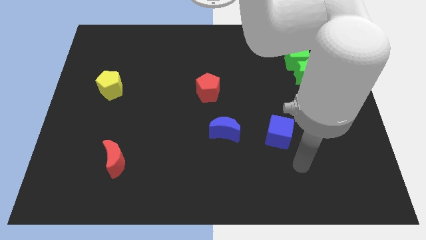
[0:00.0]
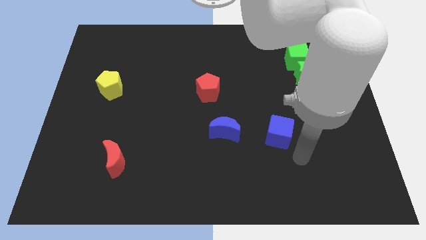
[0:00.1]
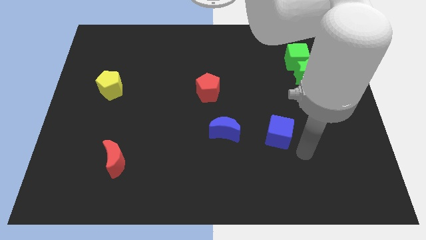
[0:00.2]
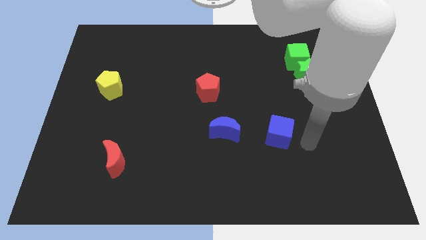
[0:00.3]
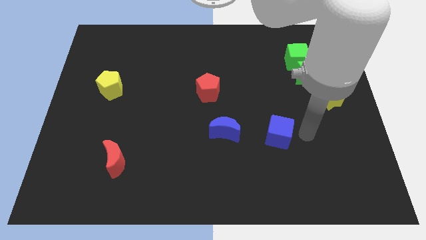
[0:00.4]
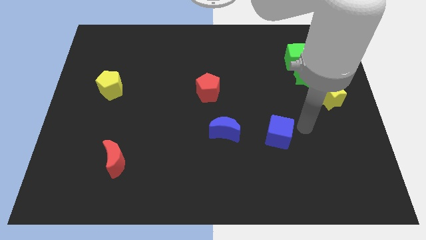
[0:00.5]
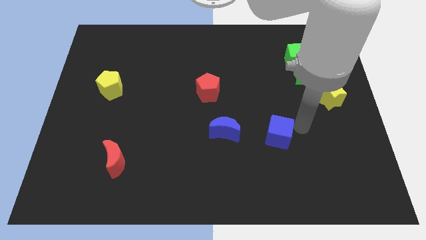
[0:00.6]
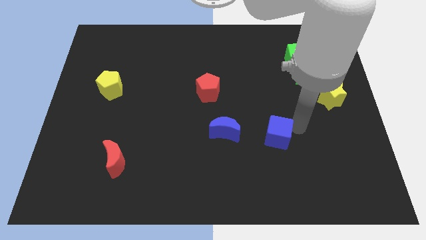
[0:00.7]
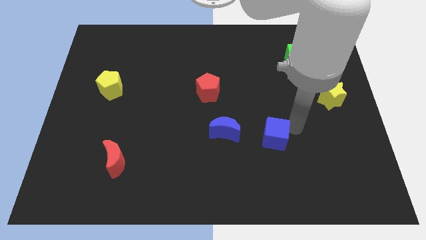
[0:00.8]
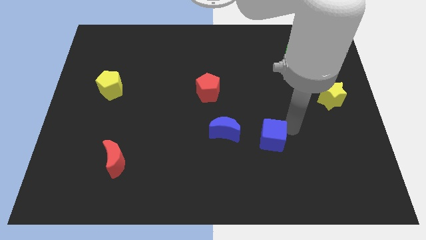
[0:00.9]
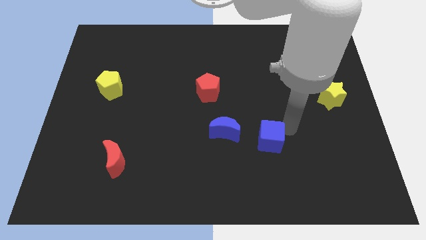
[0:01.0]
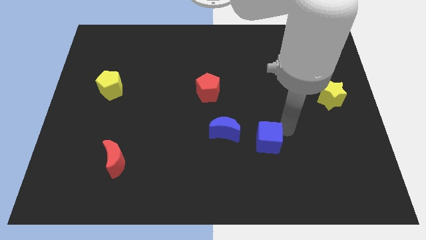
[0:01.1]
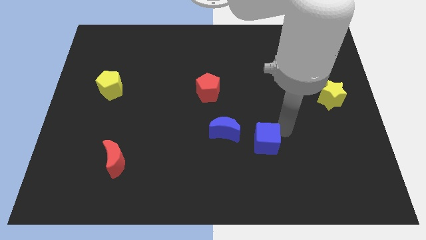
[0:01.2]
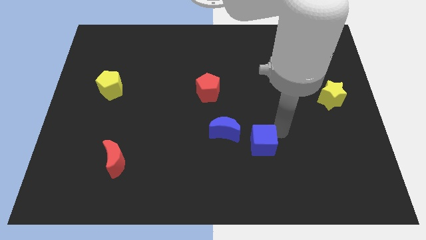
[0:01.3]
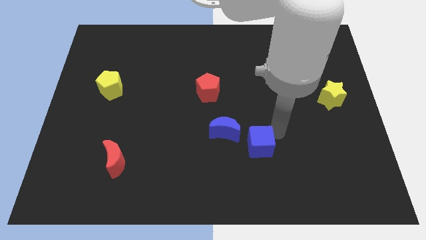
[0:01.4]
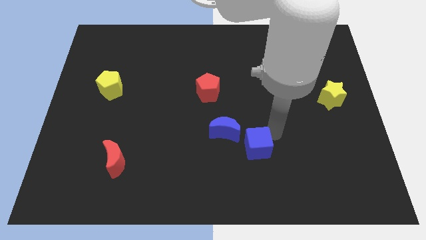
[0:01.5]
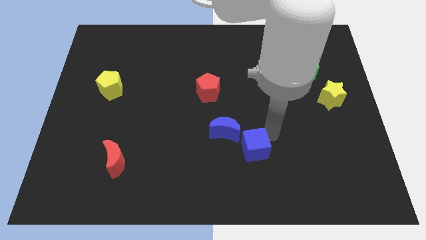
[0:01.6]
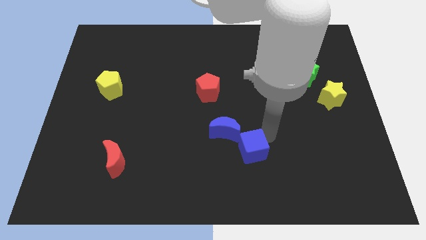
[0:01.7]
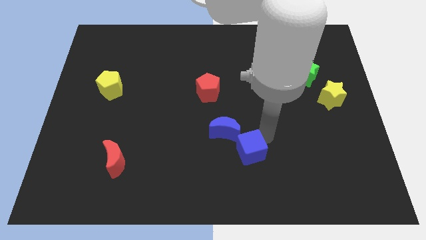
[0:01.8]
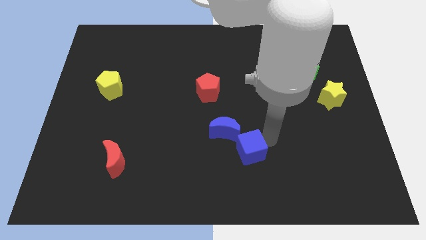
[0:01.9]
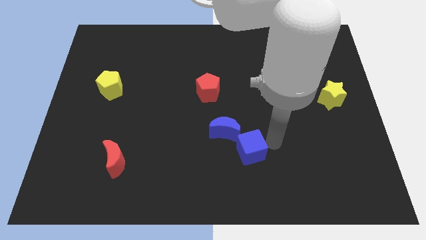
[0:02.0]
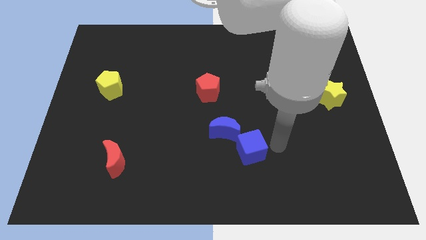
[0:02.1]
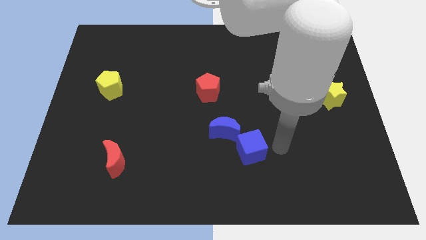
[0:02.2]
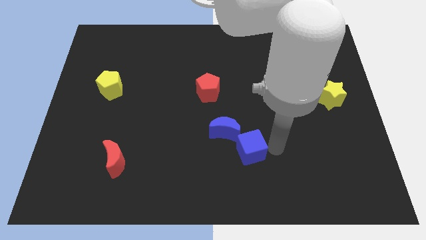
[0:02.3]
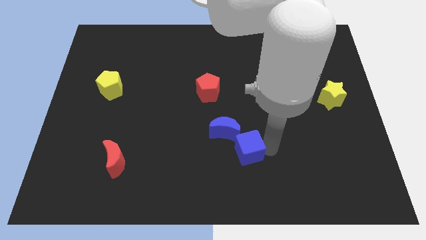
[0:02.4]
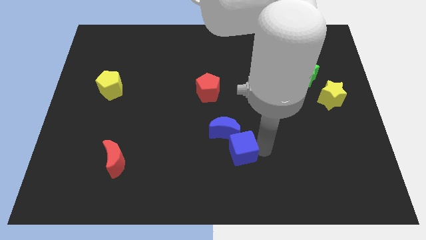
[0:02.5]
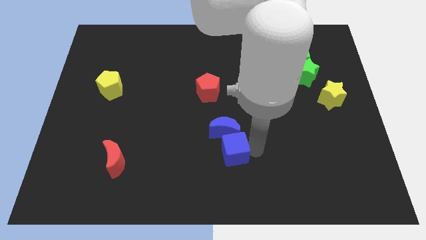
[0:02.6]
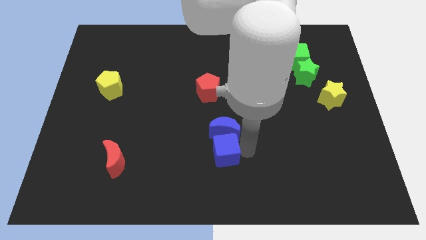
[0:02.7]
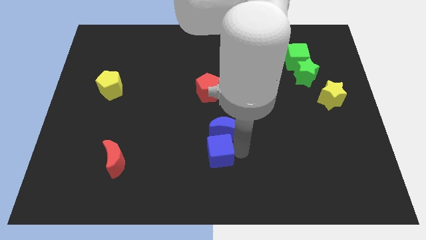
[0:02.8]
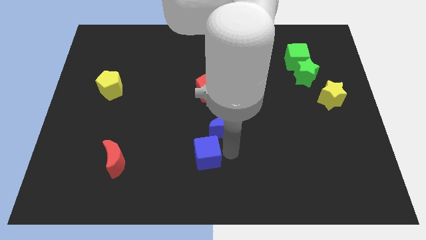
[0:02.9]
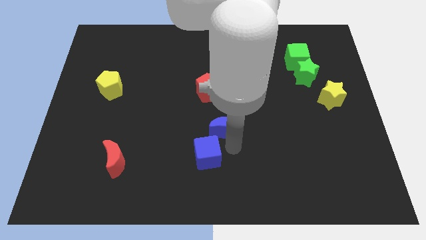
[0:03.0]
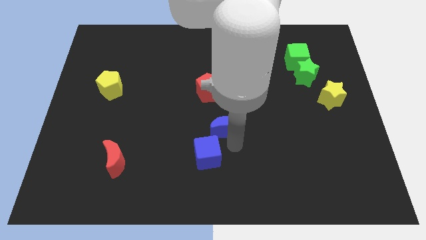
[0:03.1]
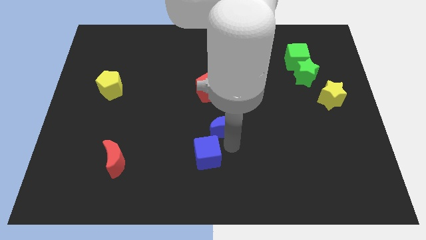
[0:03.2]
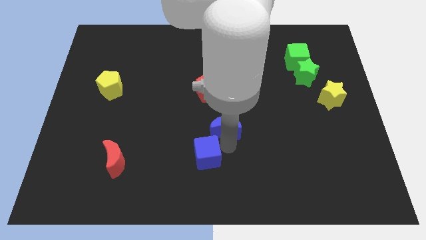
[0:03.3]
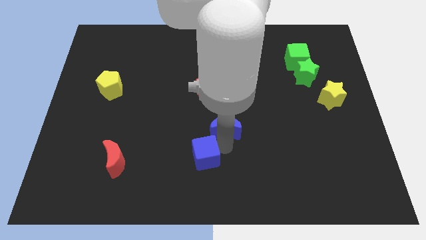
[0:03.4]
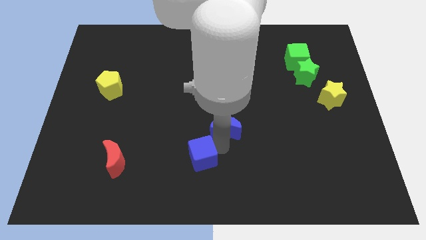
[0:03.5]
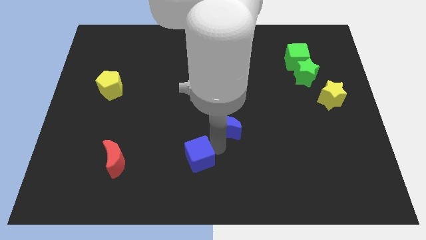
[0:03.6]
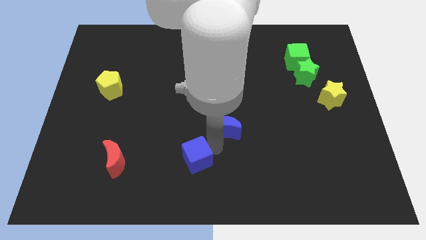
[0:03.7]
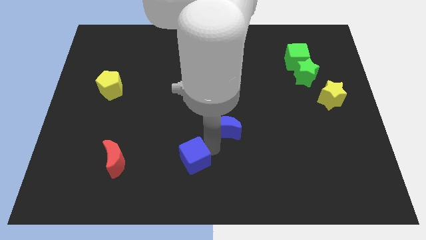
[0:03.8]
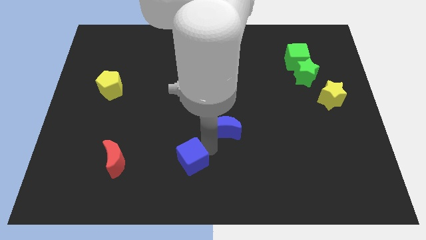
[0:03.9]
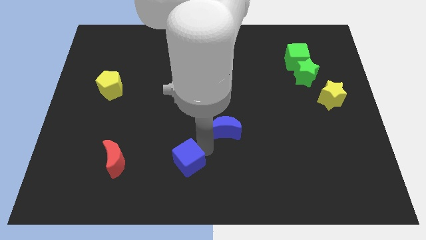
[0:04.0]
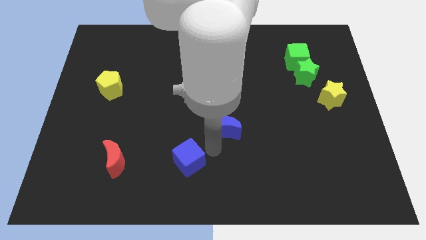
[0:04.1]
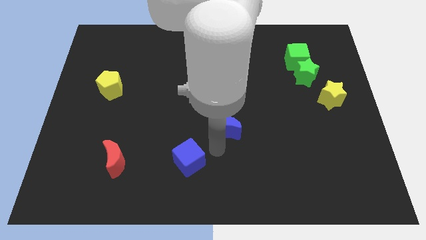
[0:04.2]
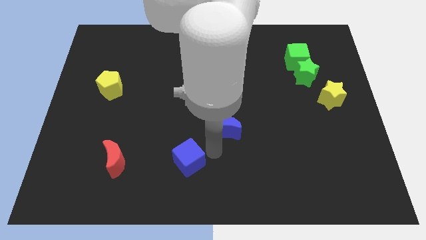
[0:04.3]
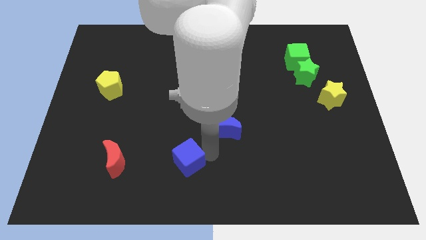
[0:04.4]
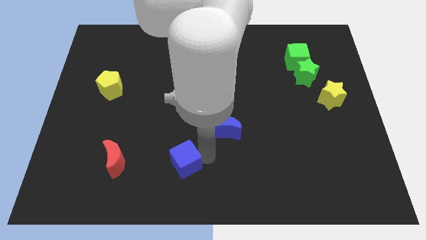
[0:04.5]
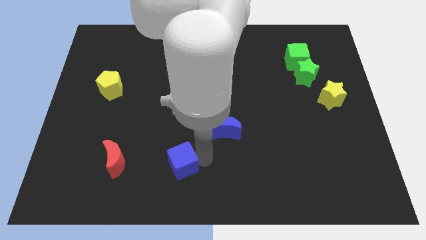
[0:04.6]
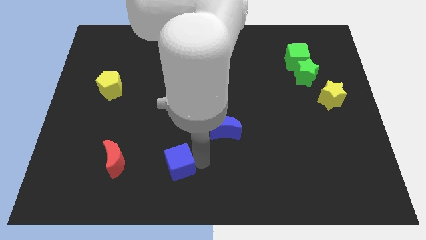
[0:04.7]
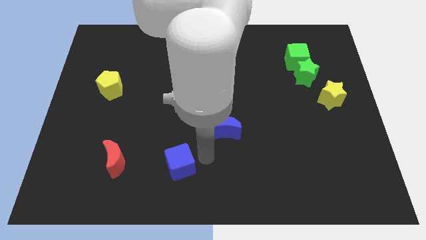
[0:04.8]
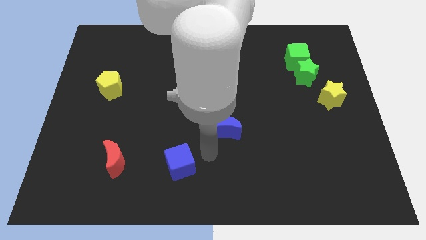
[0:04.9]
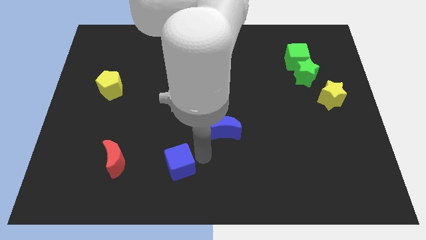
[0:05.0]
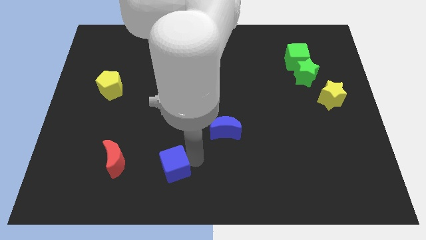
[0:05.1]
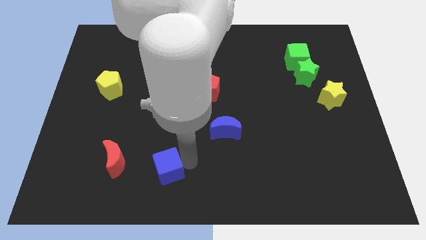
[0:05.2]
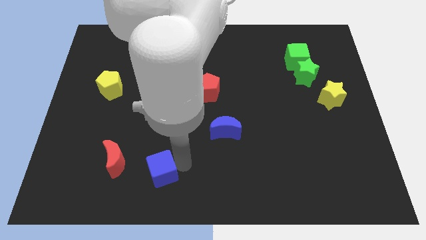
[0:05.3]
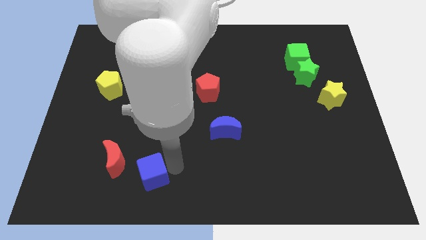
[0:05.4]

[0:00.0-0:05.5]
move the blue cube diagonally down and to the right of the red moon

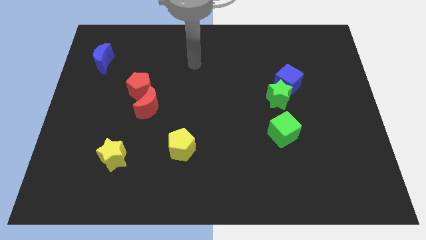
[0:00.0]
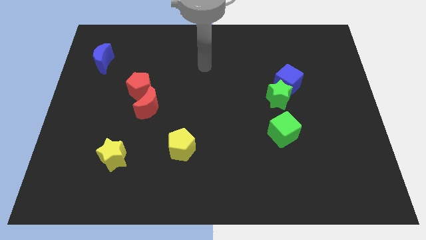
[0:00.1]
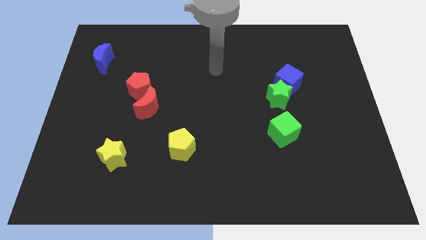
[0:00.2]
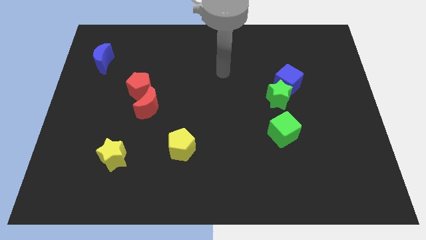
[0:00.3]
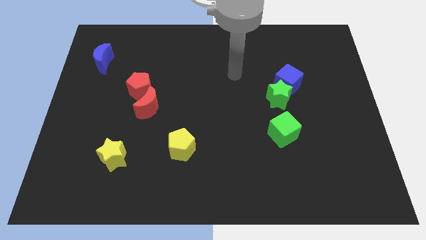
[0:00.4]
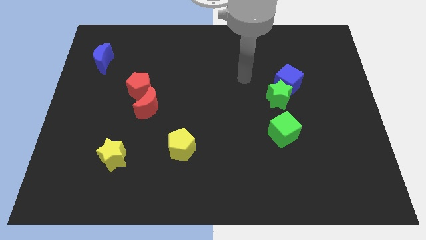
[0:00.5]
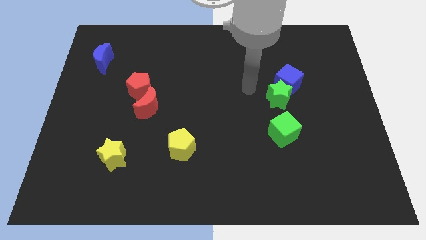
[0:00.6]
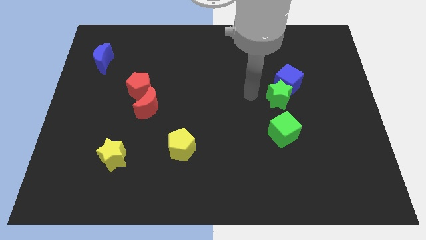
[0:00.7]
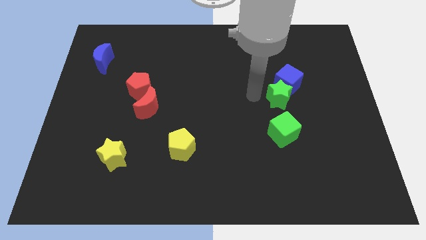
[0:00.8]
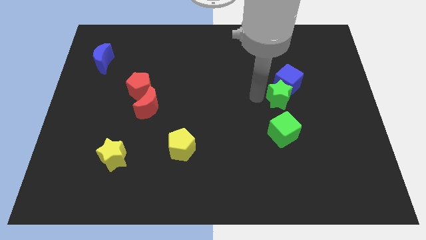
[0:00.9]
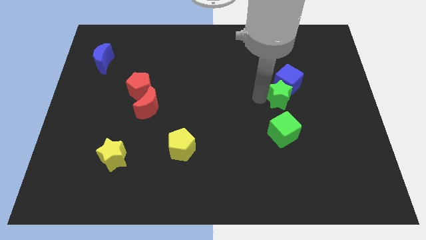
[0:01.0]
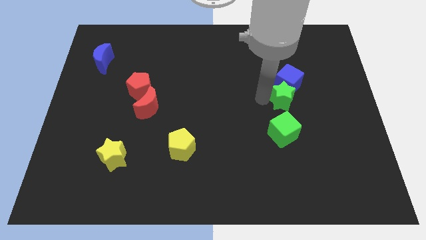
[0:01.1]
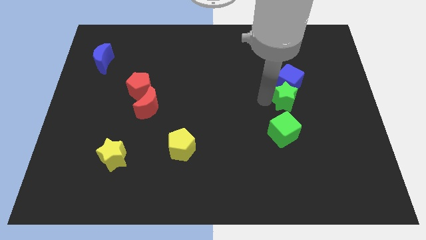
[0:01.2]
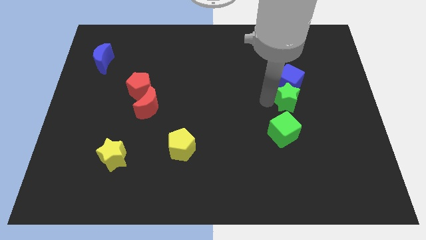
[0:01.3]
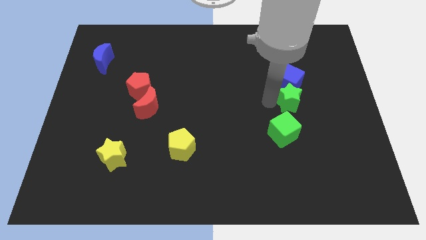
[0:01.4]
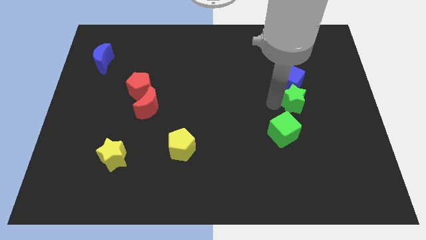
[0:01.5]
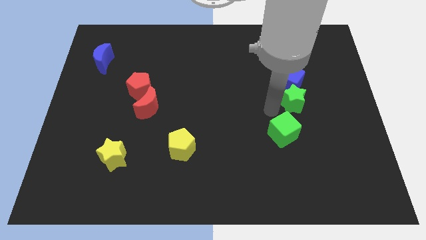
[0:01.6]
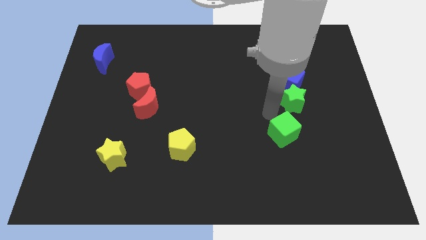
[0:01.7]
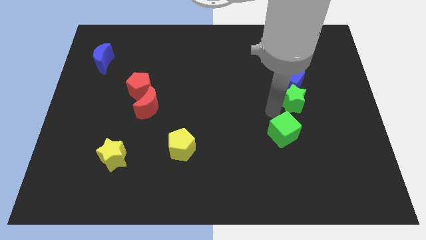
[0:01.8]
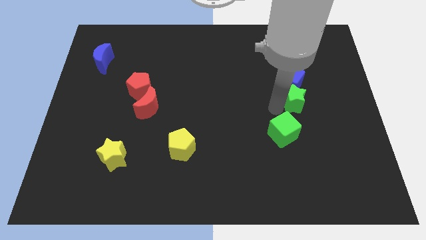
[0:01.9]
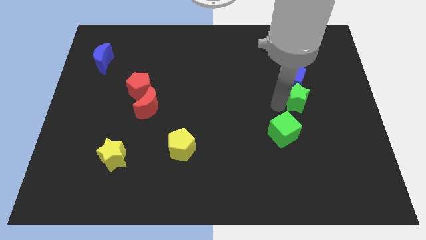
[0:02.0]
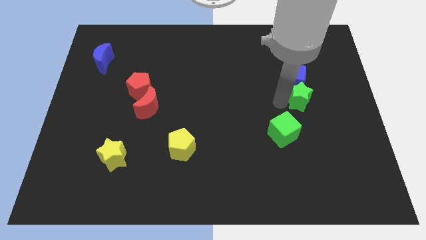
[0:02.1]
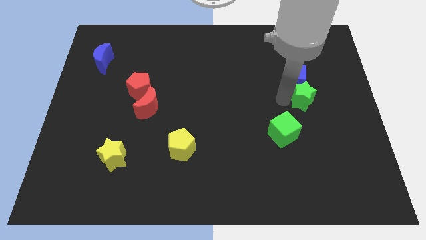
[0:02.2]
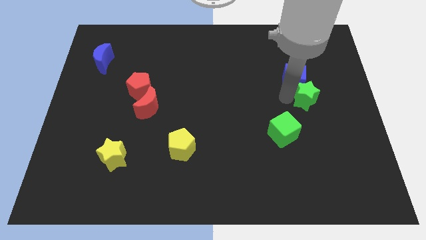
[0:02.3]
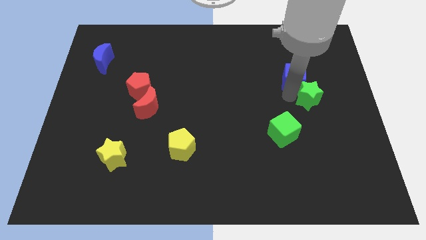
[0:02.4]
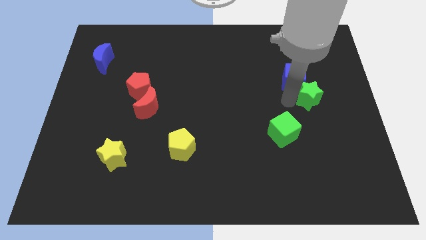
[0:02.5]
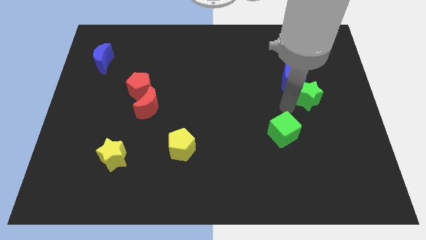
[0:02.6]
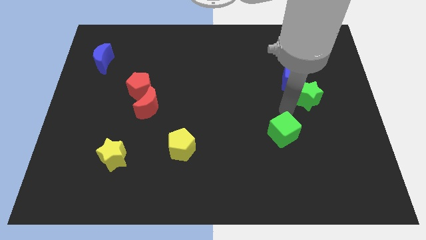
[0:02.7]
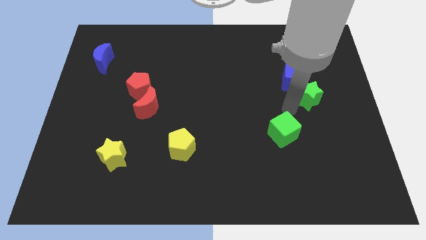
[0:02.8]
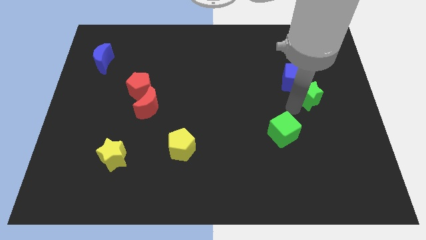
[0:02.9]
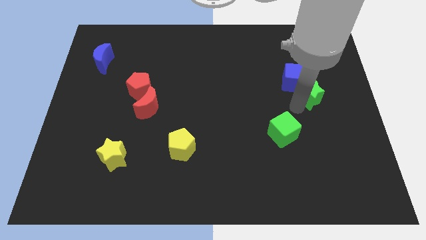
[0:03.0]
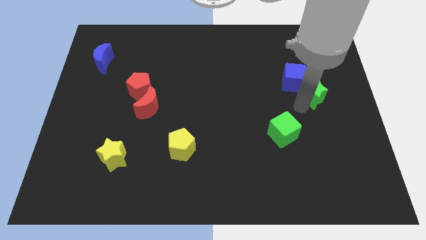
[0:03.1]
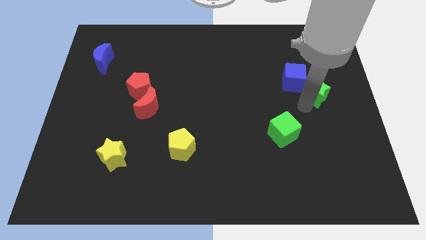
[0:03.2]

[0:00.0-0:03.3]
slide the green star right of the blue cube
